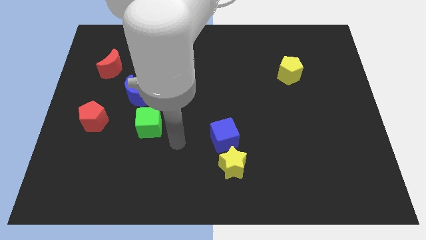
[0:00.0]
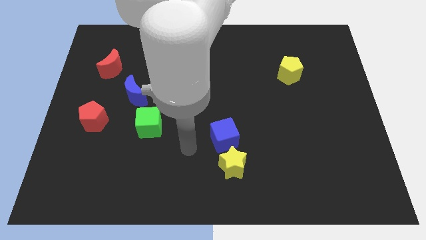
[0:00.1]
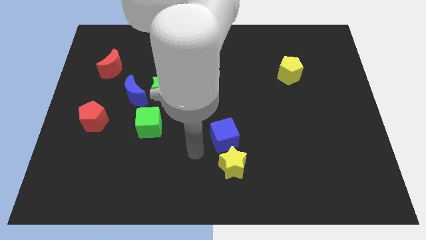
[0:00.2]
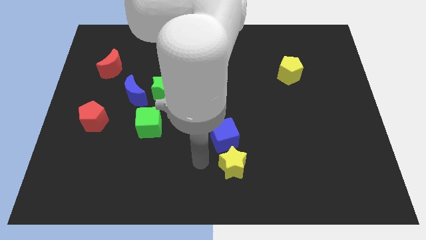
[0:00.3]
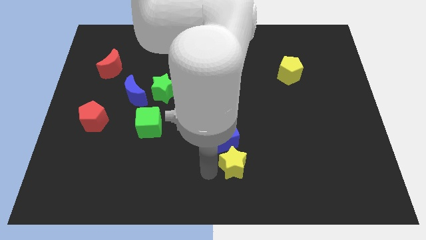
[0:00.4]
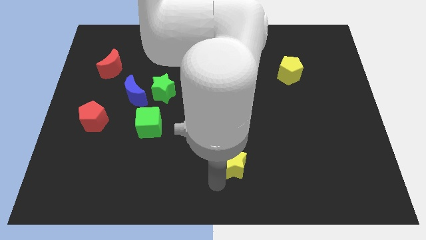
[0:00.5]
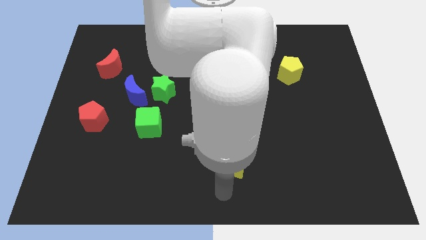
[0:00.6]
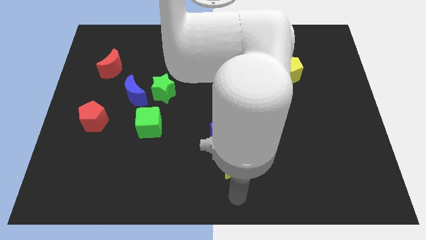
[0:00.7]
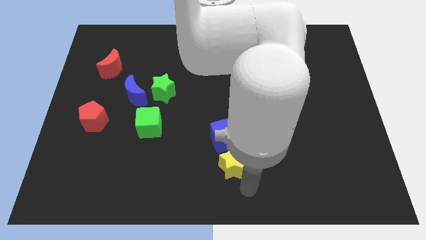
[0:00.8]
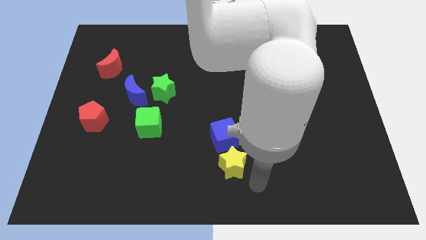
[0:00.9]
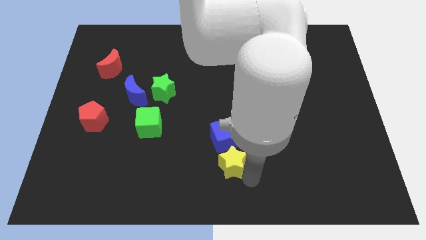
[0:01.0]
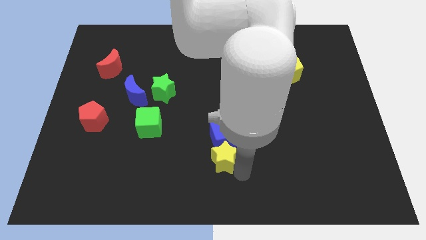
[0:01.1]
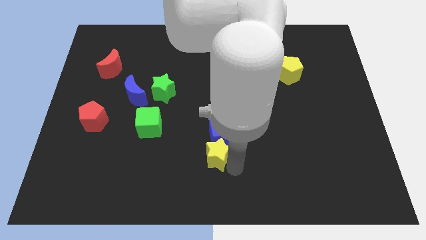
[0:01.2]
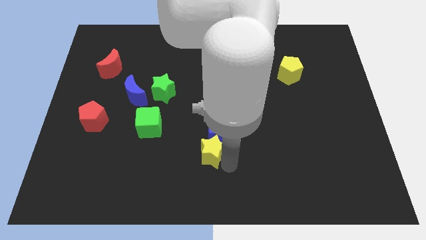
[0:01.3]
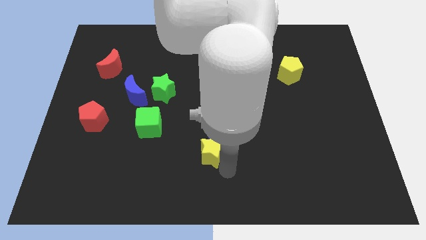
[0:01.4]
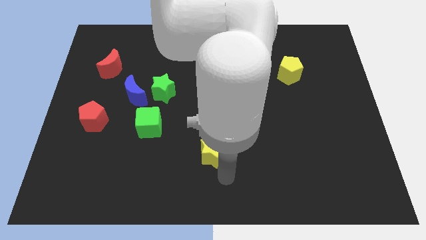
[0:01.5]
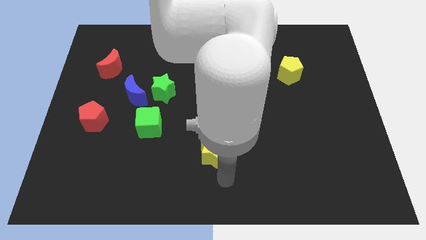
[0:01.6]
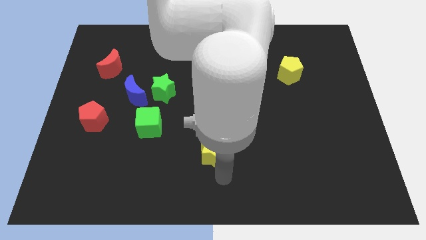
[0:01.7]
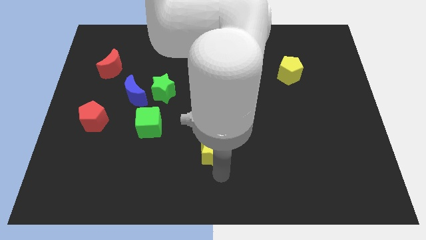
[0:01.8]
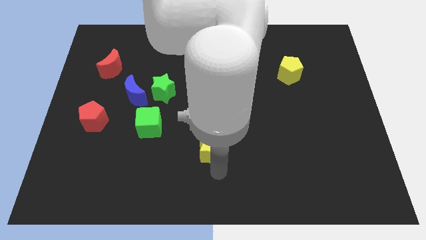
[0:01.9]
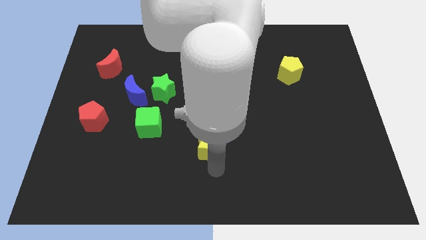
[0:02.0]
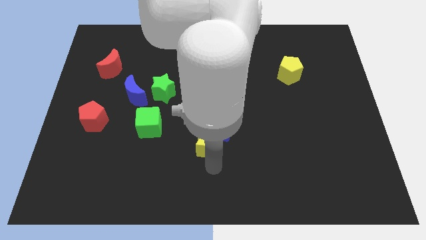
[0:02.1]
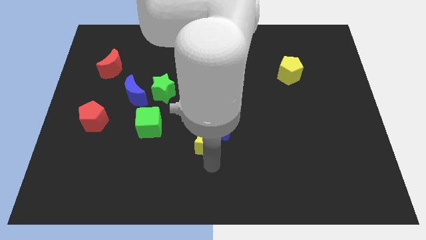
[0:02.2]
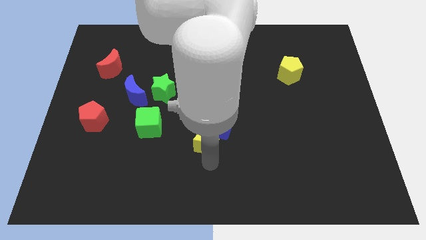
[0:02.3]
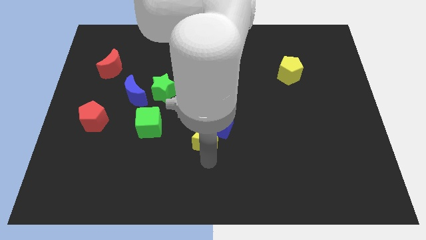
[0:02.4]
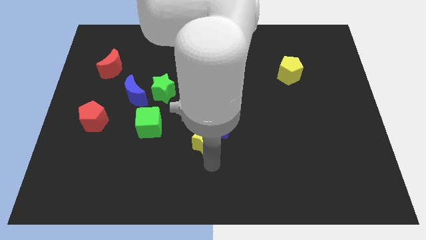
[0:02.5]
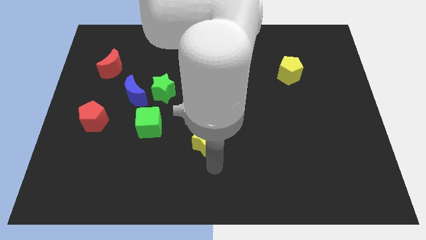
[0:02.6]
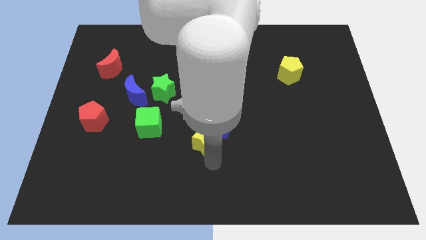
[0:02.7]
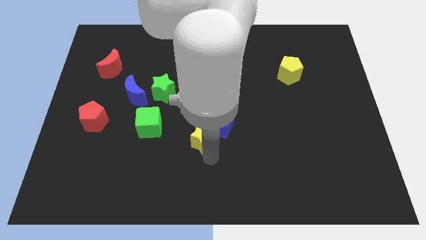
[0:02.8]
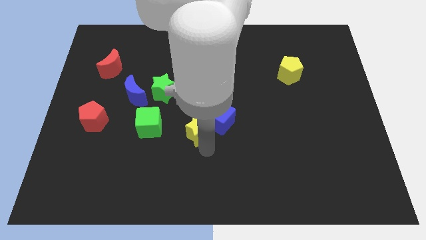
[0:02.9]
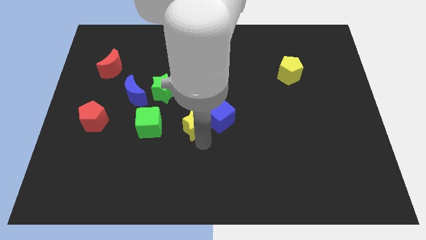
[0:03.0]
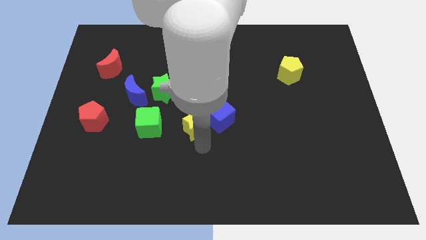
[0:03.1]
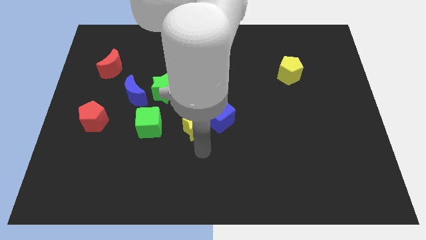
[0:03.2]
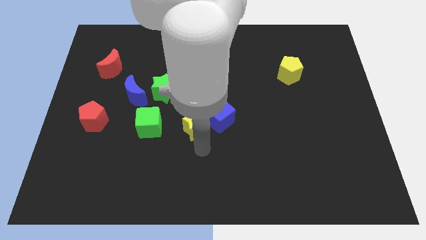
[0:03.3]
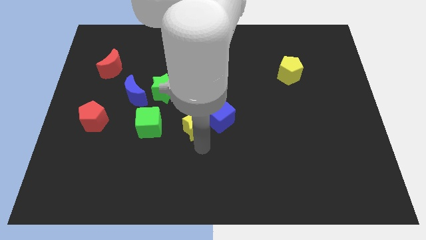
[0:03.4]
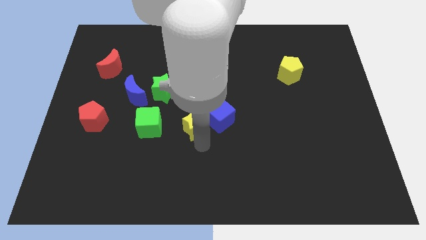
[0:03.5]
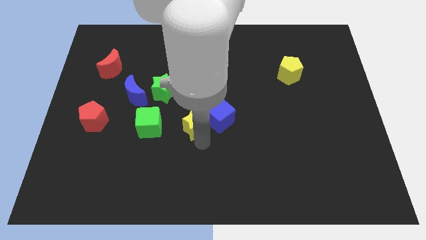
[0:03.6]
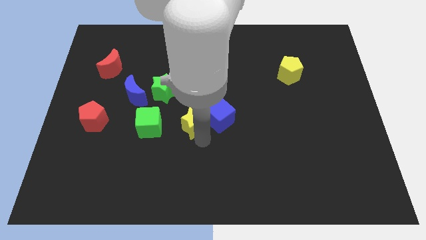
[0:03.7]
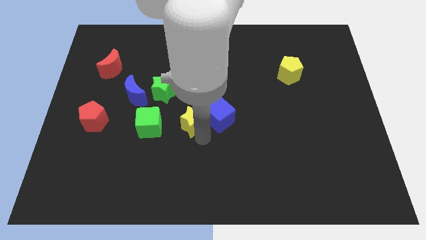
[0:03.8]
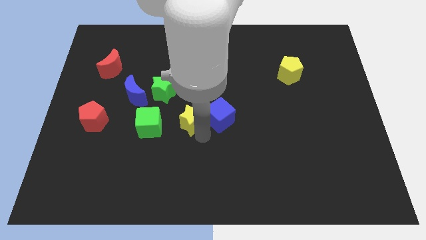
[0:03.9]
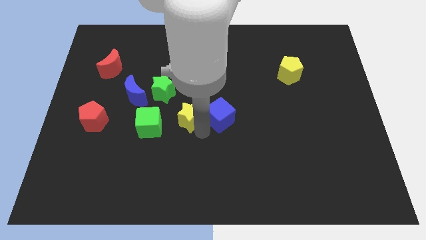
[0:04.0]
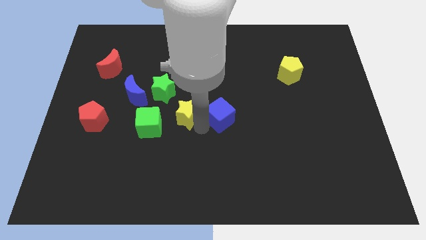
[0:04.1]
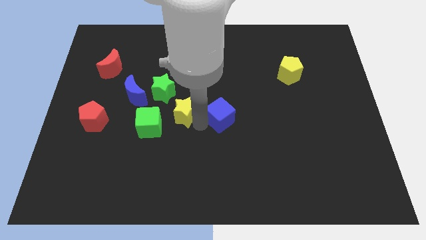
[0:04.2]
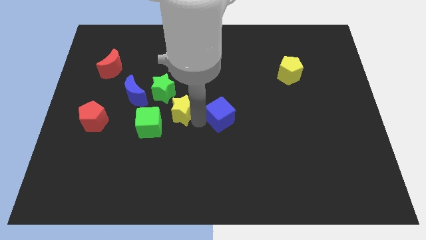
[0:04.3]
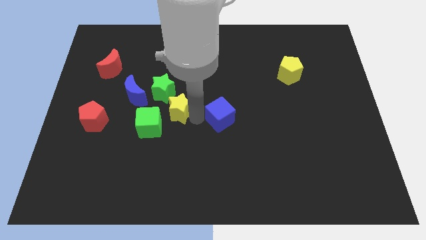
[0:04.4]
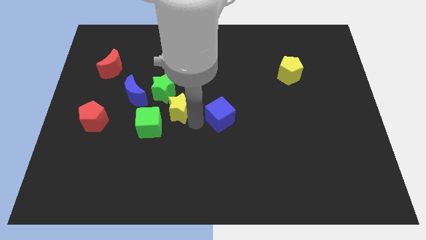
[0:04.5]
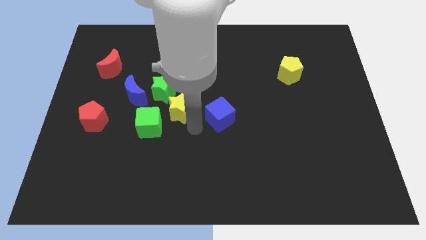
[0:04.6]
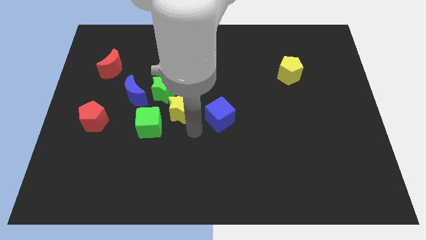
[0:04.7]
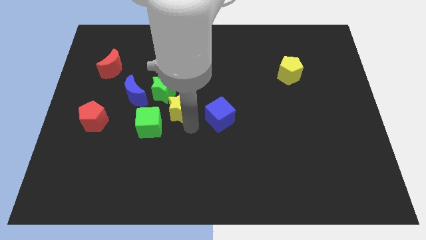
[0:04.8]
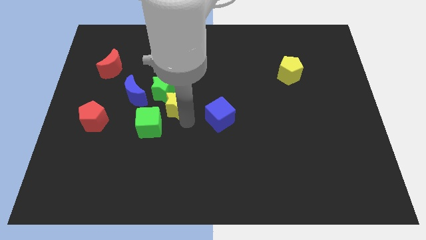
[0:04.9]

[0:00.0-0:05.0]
put the yellow star next to the green star

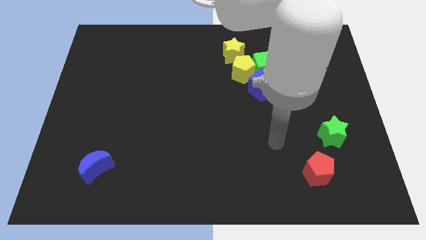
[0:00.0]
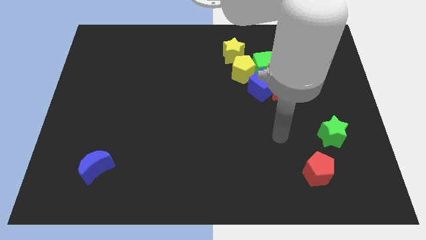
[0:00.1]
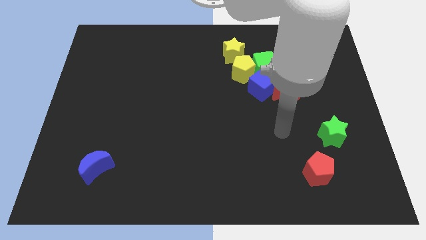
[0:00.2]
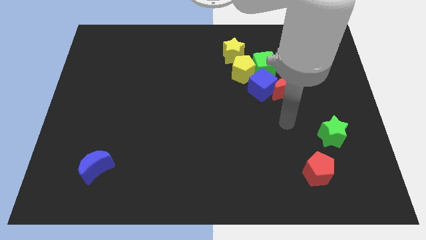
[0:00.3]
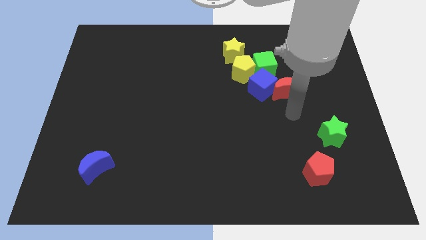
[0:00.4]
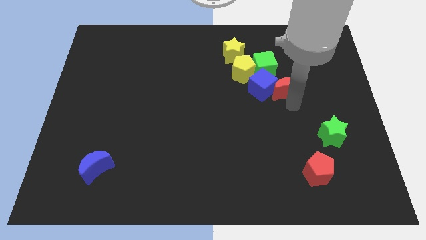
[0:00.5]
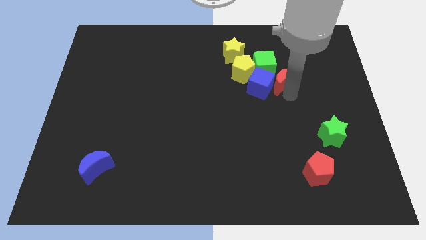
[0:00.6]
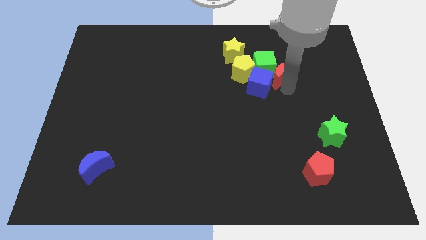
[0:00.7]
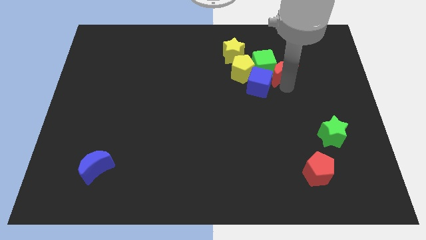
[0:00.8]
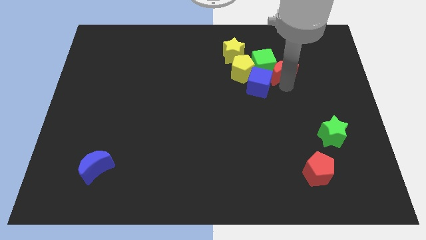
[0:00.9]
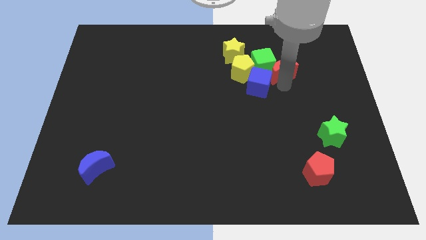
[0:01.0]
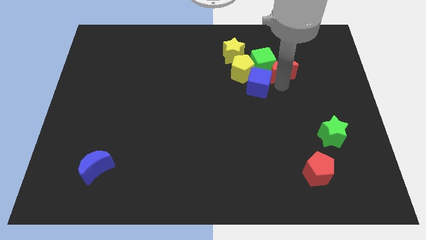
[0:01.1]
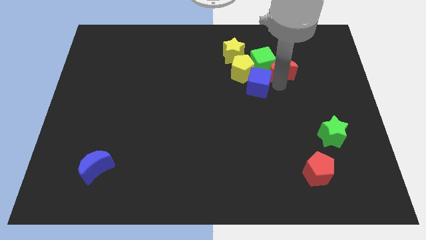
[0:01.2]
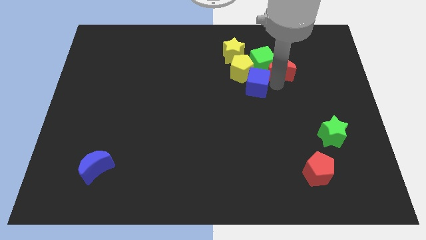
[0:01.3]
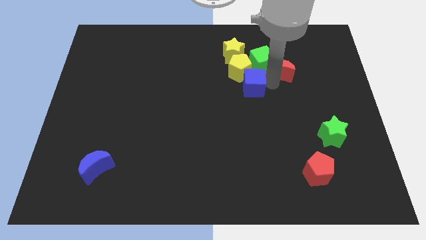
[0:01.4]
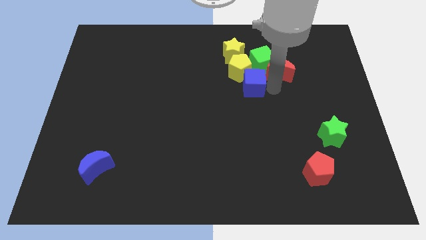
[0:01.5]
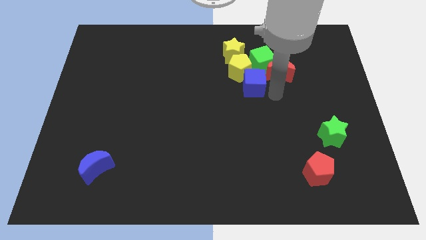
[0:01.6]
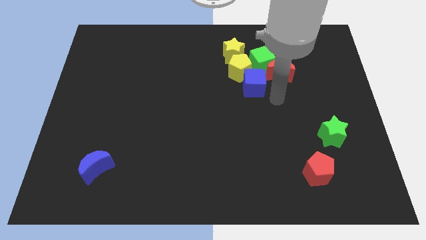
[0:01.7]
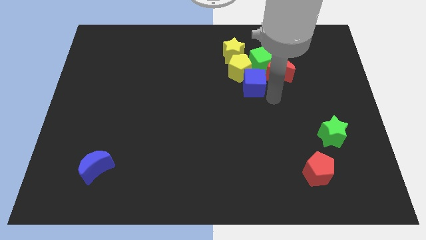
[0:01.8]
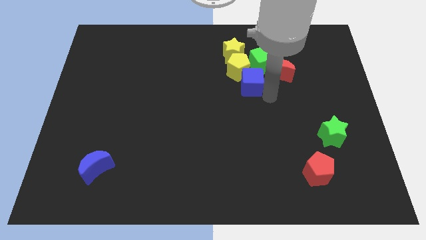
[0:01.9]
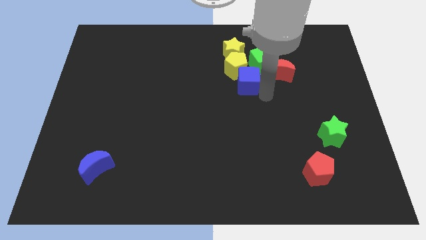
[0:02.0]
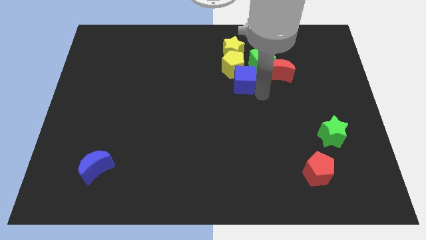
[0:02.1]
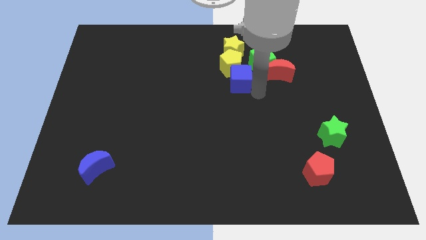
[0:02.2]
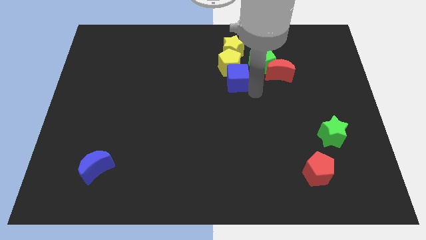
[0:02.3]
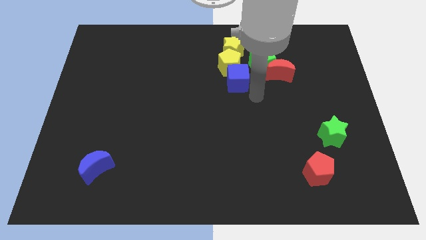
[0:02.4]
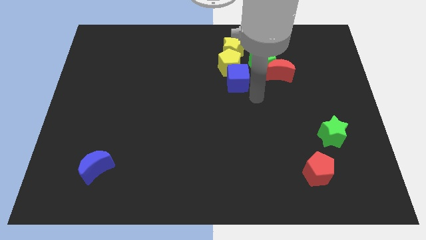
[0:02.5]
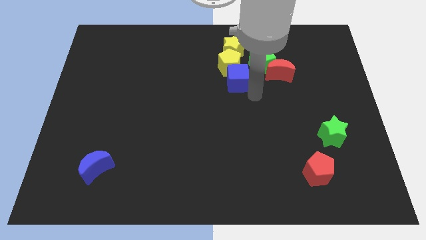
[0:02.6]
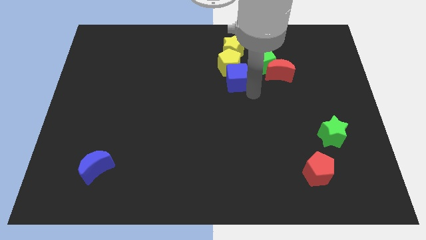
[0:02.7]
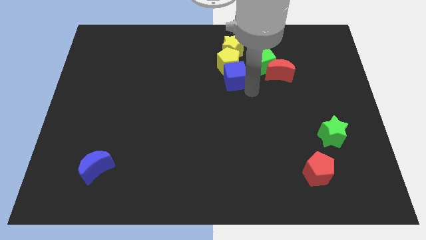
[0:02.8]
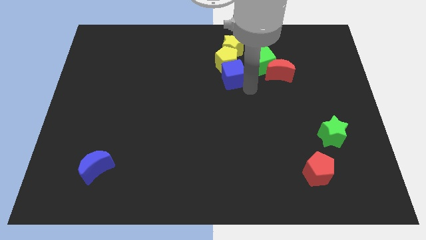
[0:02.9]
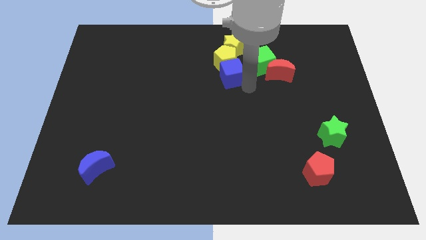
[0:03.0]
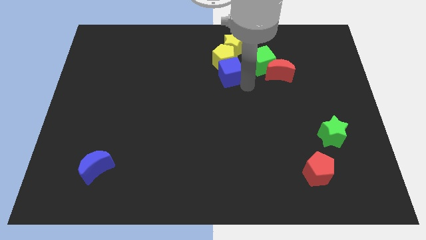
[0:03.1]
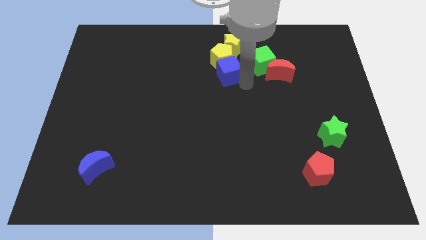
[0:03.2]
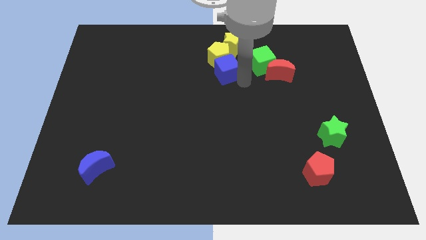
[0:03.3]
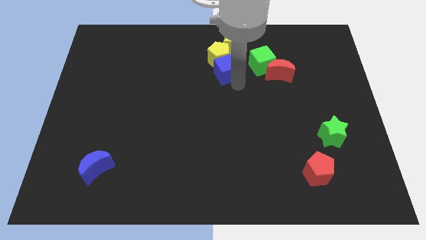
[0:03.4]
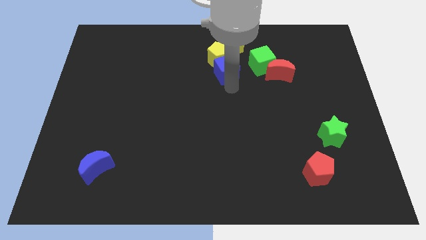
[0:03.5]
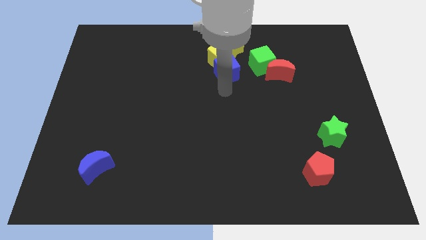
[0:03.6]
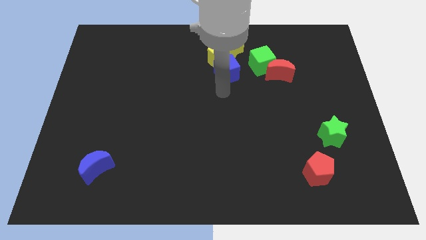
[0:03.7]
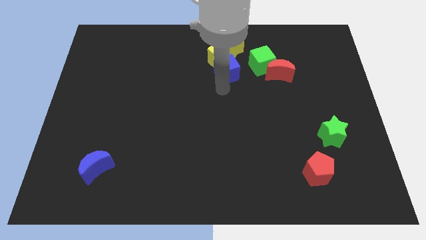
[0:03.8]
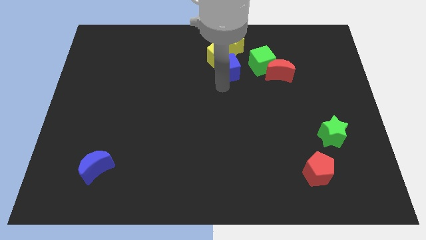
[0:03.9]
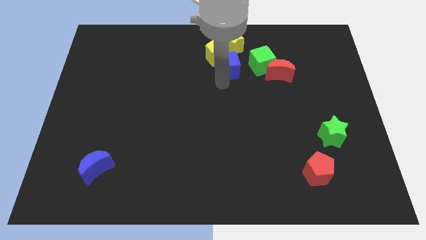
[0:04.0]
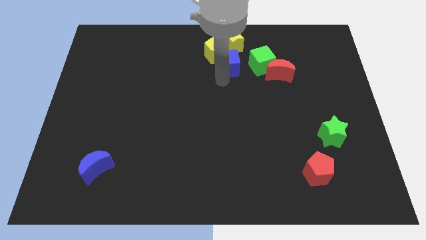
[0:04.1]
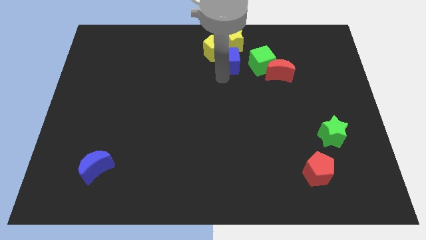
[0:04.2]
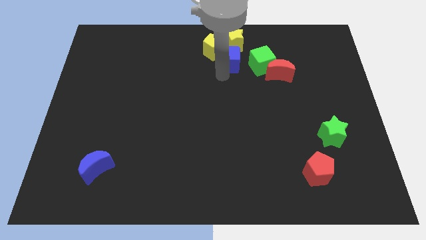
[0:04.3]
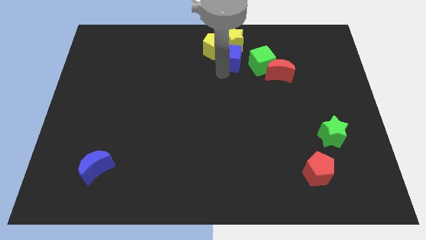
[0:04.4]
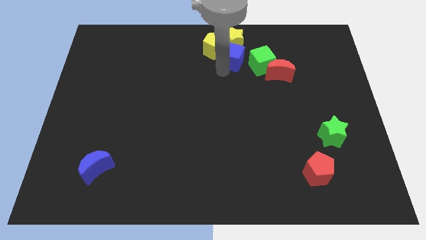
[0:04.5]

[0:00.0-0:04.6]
slide the blue cube to the yellow star
